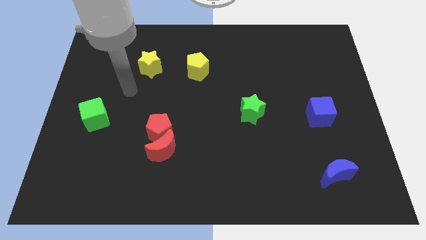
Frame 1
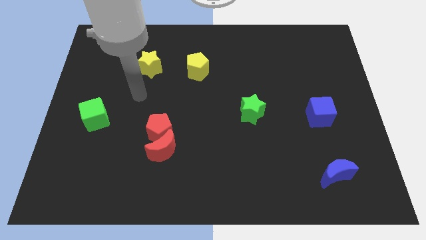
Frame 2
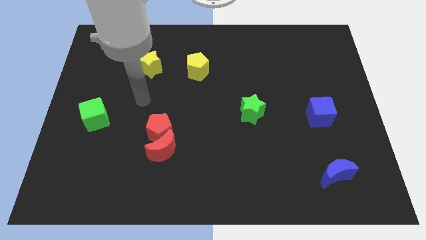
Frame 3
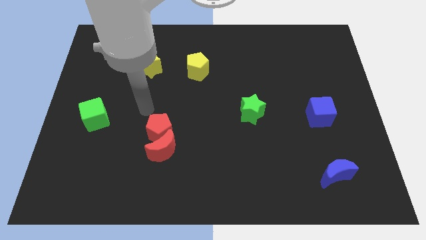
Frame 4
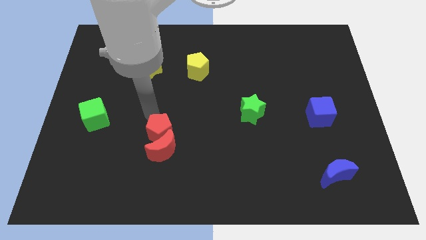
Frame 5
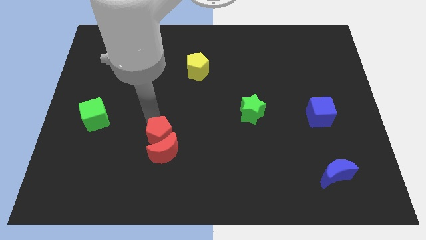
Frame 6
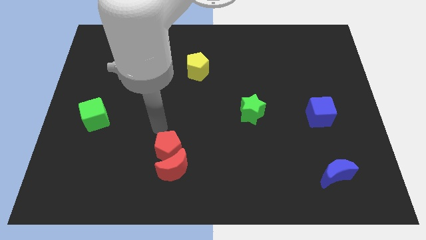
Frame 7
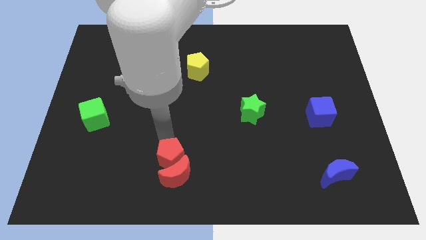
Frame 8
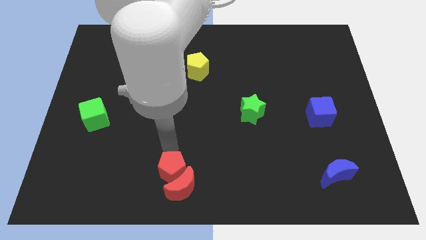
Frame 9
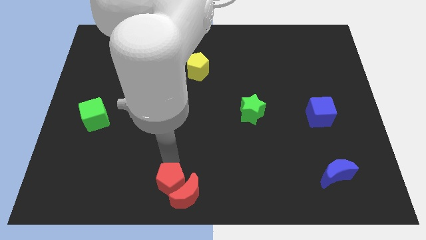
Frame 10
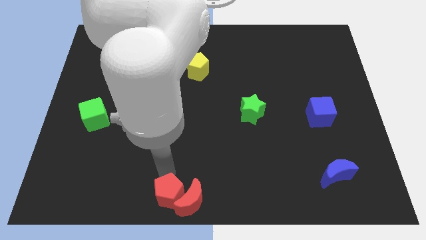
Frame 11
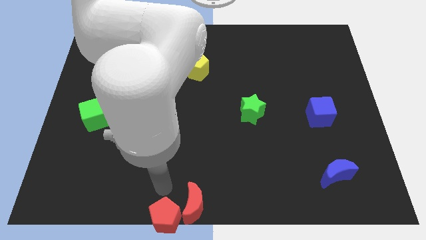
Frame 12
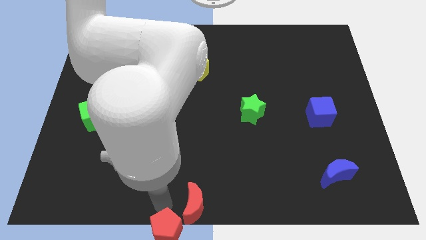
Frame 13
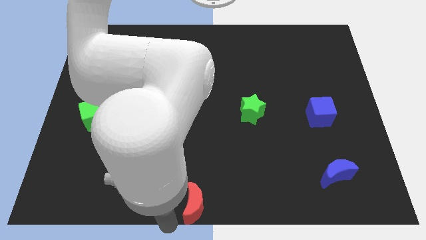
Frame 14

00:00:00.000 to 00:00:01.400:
move the red moon away from the red pentagon

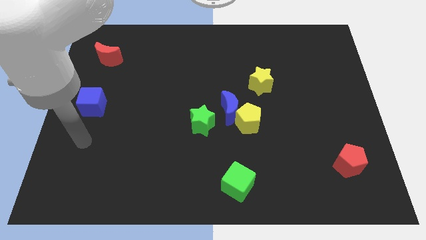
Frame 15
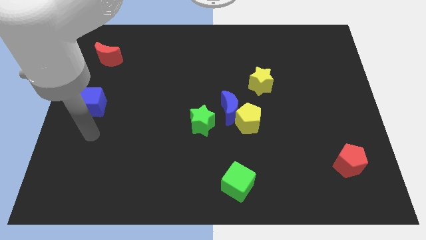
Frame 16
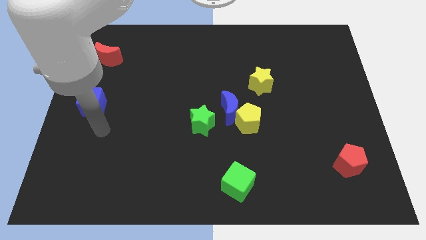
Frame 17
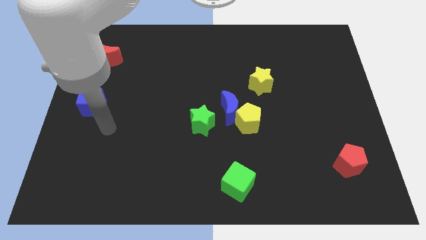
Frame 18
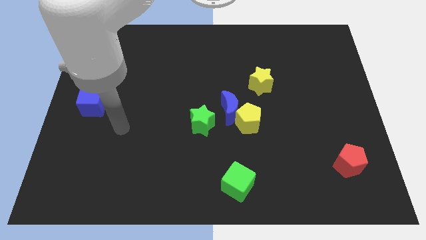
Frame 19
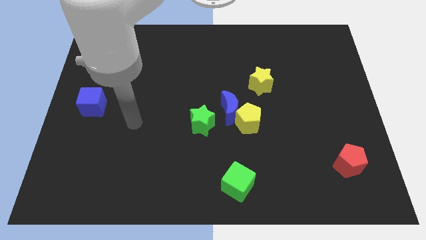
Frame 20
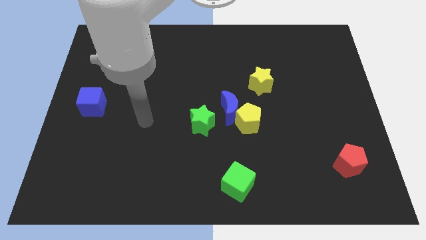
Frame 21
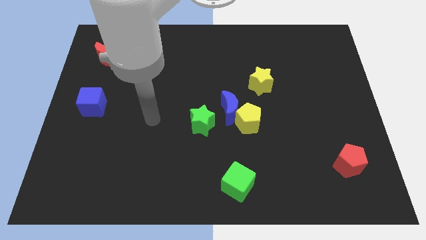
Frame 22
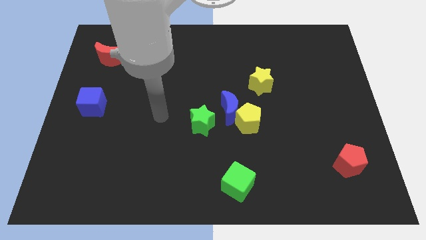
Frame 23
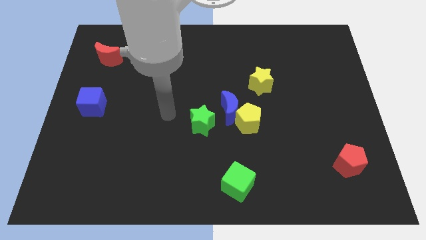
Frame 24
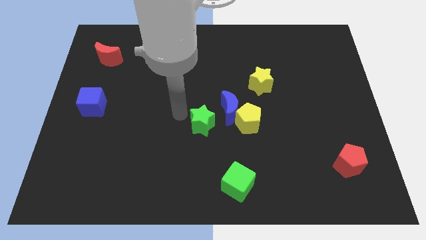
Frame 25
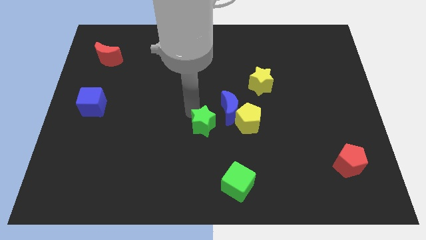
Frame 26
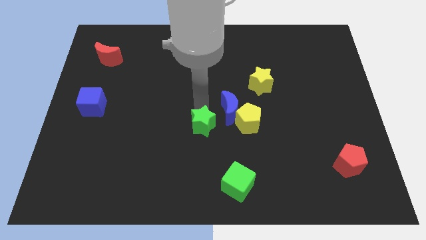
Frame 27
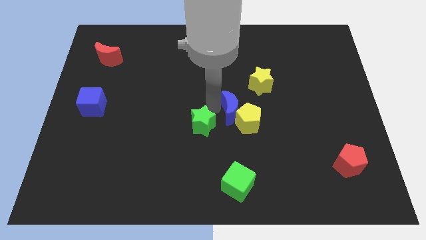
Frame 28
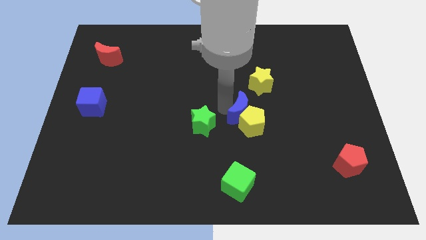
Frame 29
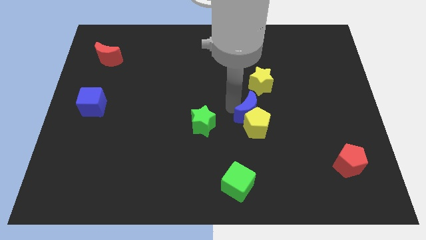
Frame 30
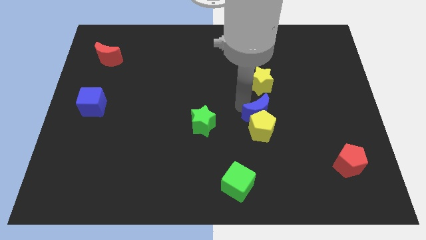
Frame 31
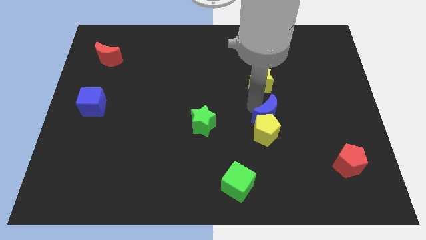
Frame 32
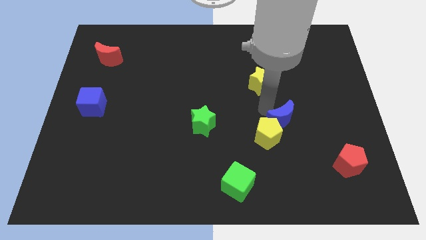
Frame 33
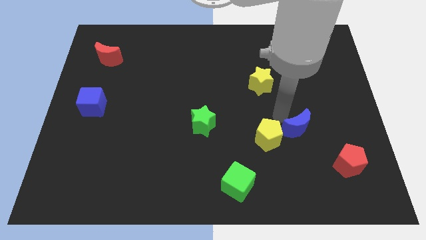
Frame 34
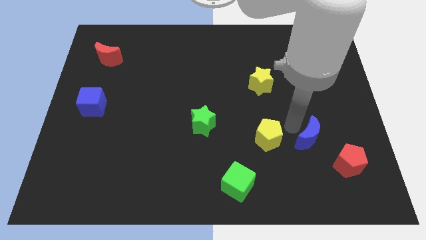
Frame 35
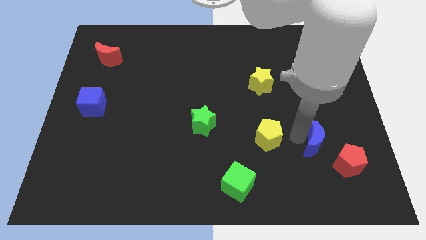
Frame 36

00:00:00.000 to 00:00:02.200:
separate the yellow pentagon from the blue moon

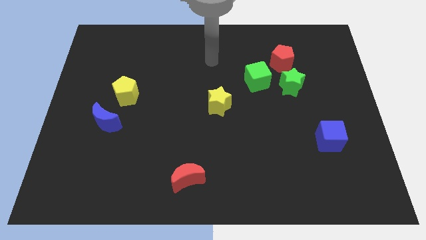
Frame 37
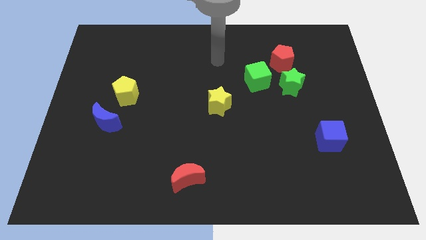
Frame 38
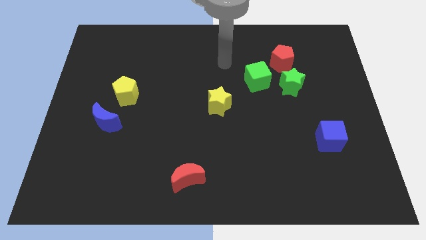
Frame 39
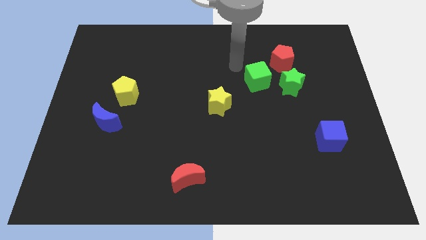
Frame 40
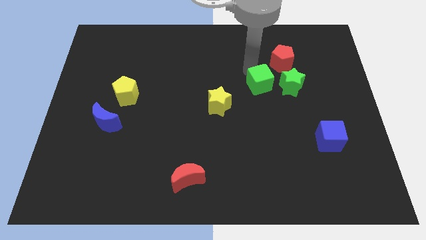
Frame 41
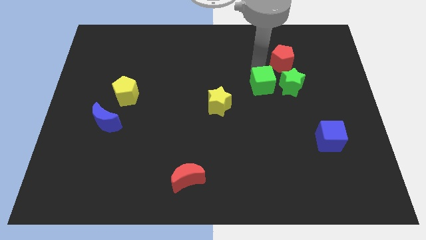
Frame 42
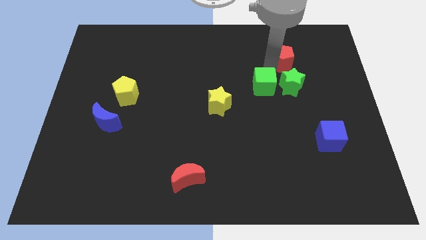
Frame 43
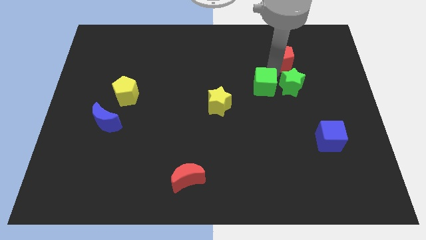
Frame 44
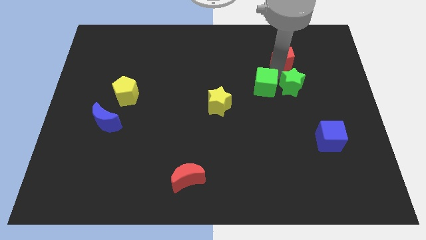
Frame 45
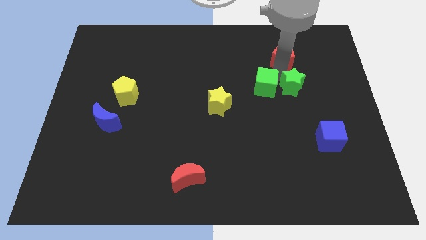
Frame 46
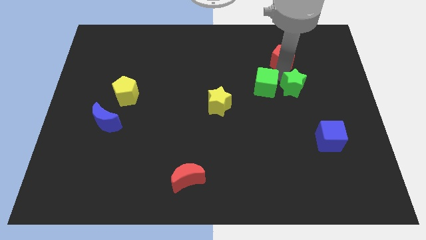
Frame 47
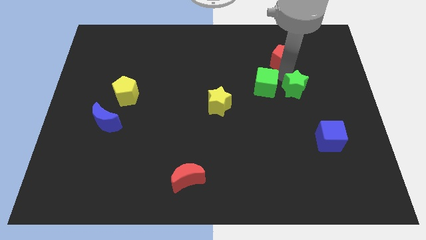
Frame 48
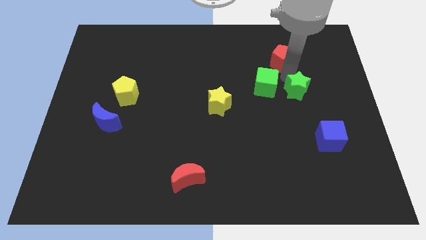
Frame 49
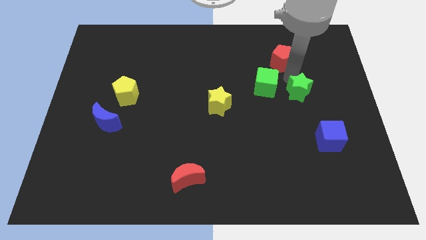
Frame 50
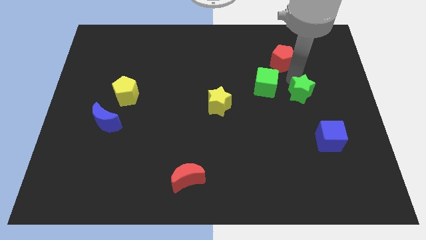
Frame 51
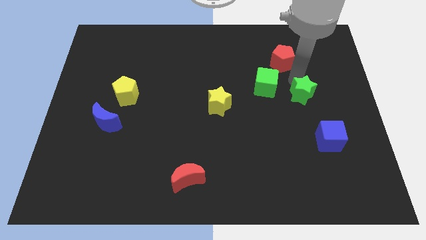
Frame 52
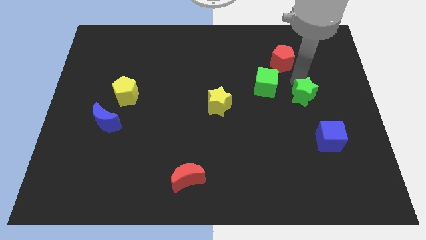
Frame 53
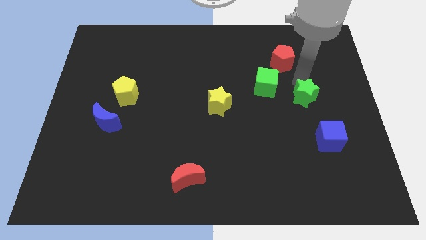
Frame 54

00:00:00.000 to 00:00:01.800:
pull the green star apart from the red pentagon and green cube

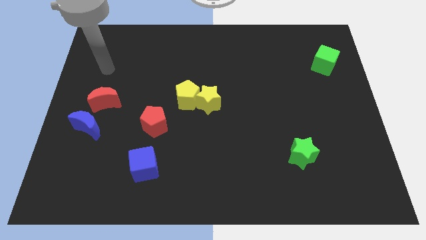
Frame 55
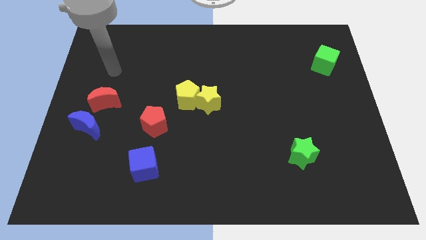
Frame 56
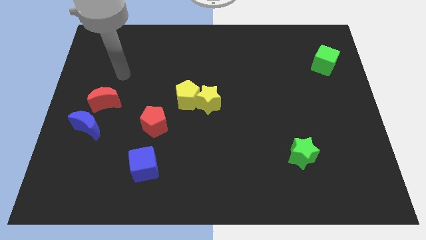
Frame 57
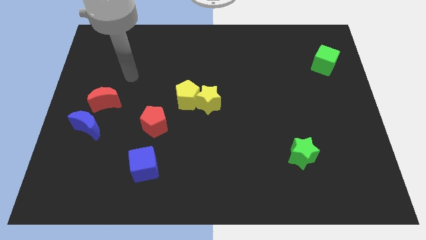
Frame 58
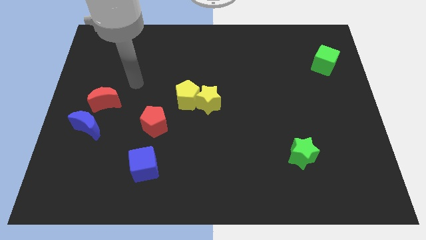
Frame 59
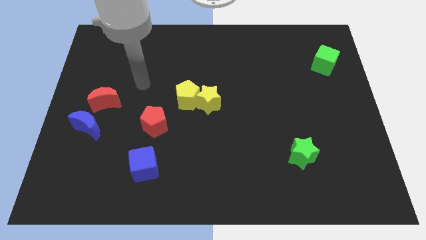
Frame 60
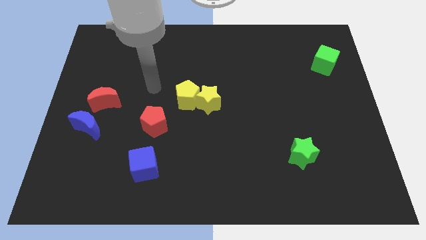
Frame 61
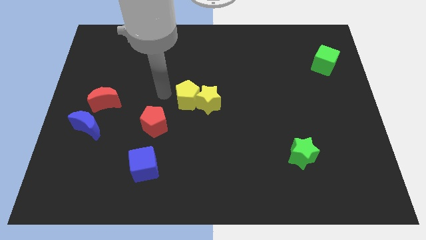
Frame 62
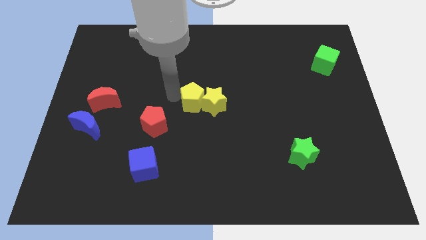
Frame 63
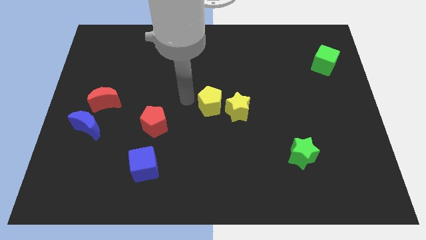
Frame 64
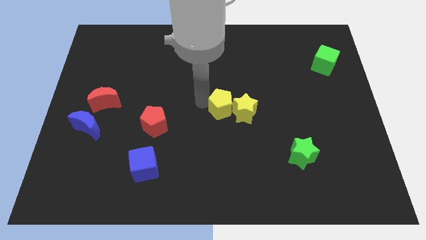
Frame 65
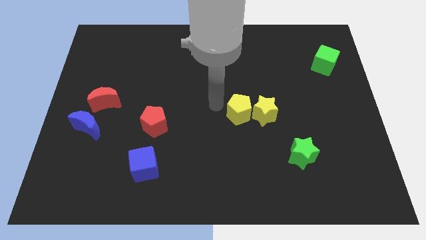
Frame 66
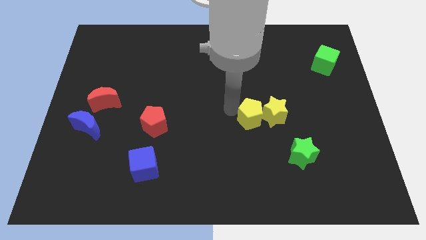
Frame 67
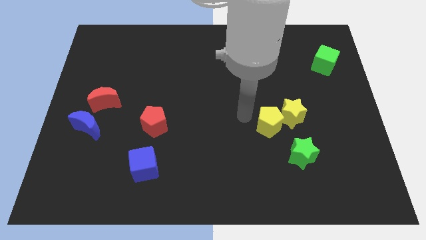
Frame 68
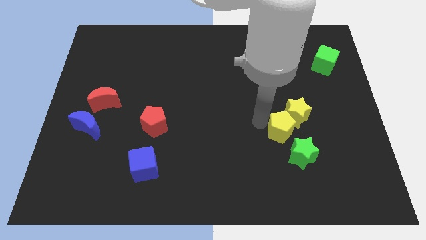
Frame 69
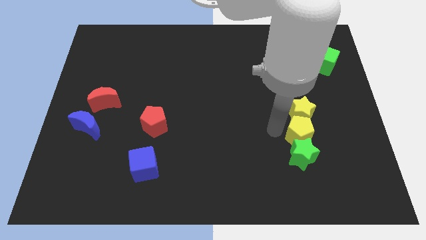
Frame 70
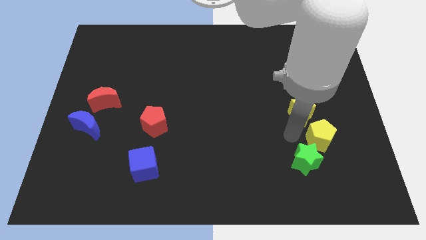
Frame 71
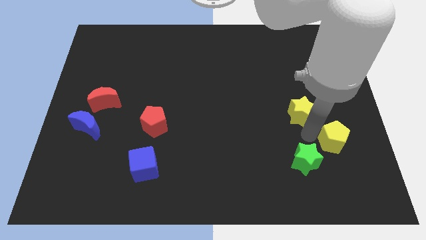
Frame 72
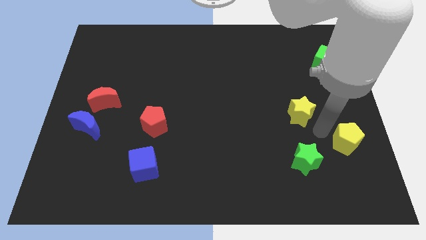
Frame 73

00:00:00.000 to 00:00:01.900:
move the yellow star away from the yellow pentagon

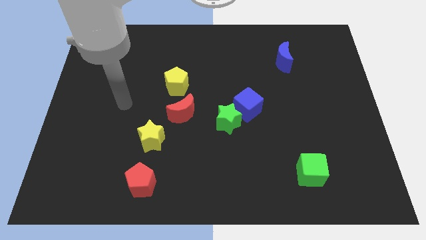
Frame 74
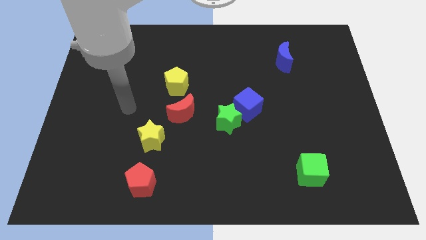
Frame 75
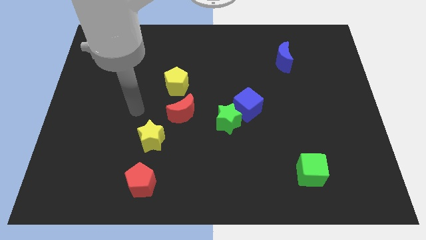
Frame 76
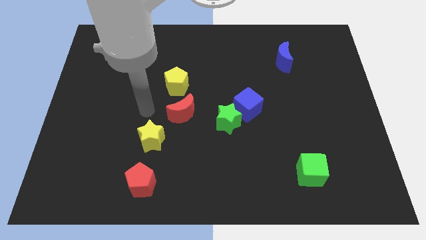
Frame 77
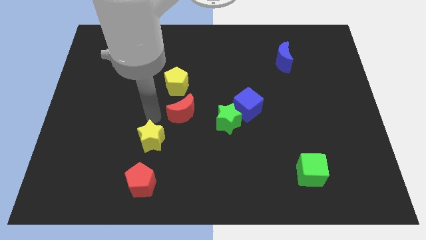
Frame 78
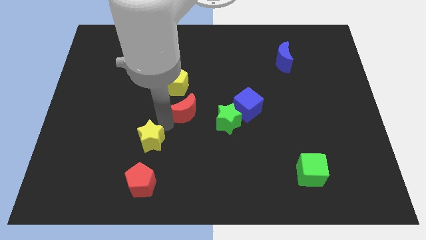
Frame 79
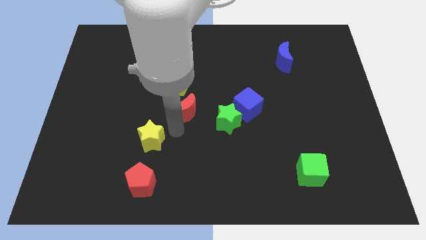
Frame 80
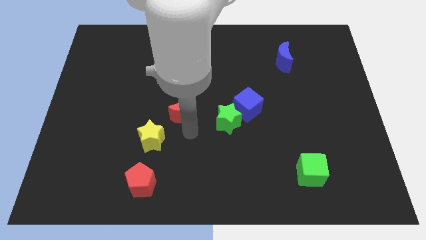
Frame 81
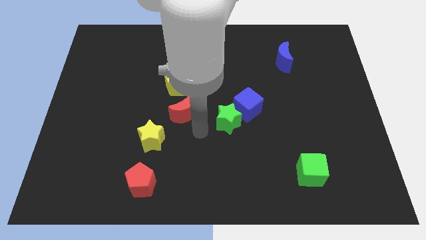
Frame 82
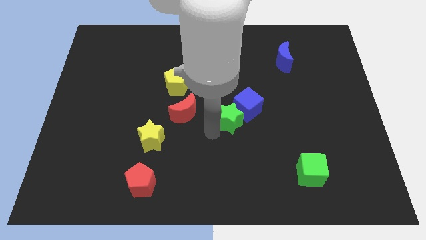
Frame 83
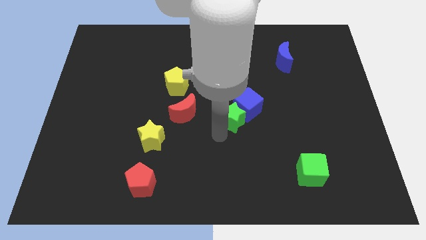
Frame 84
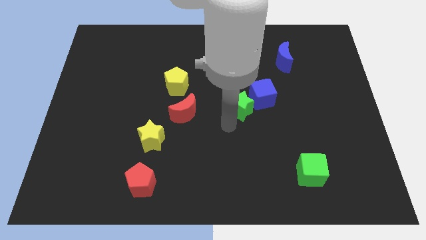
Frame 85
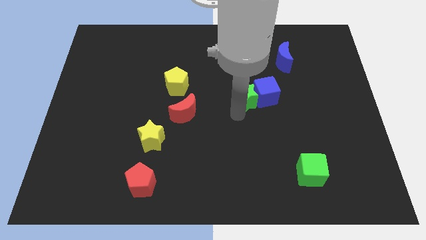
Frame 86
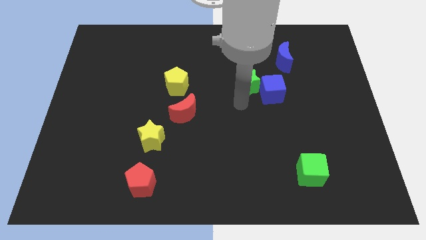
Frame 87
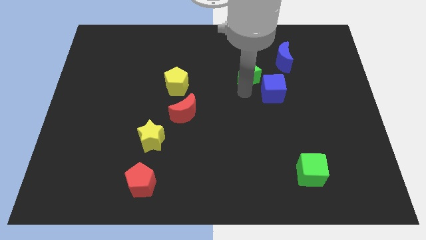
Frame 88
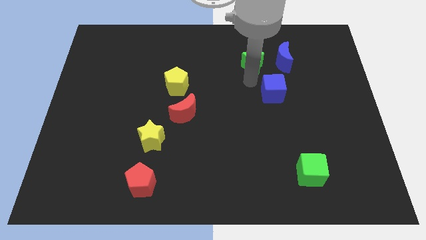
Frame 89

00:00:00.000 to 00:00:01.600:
pull the blue cube apart from the green star

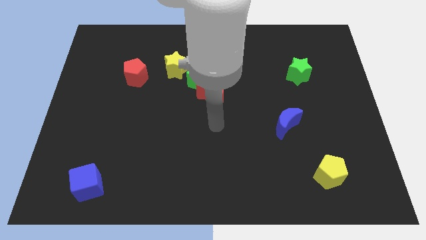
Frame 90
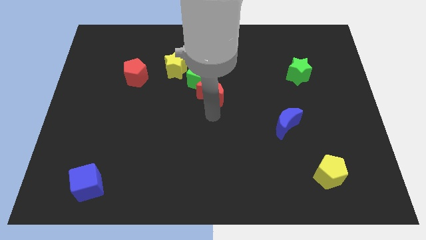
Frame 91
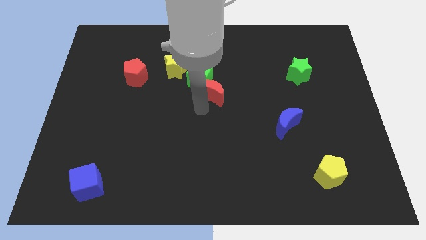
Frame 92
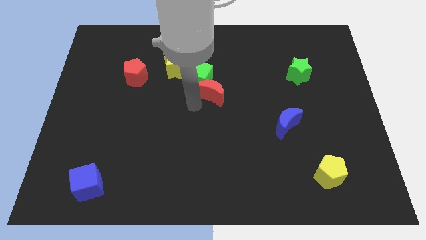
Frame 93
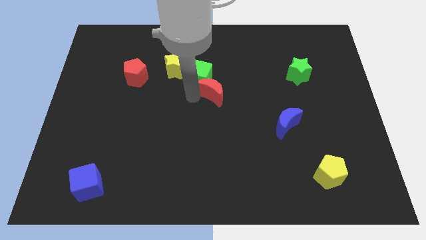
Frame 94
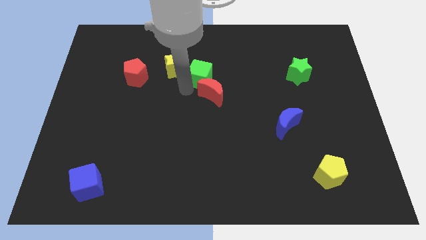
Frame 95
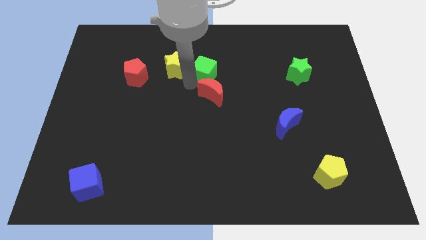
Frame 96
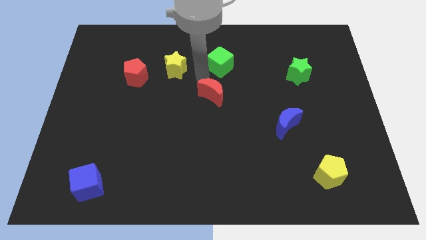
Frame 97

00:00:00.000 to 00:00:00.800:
separate the red moon from the green cube
